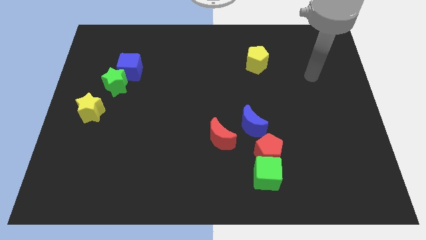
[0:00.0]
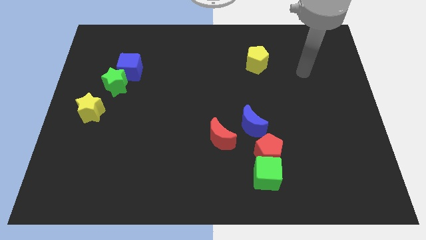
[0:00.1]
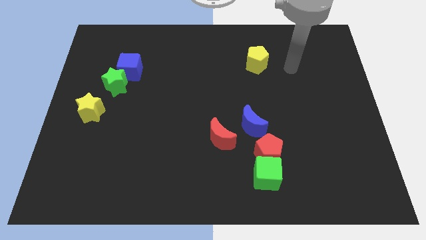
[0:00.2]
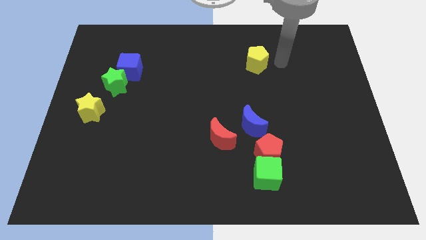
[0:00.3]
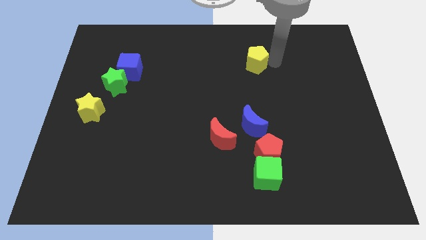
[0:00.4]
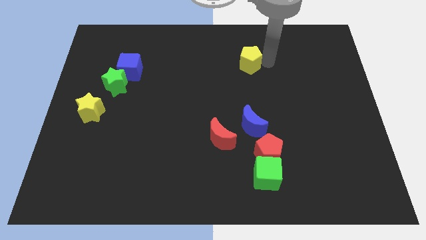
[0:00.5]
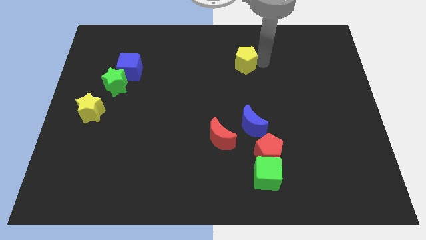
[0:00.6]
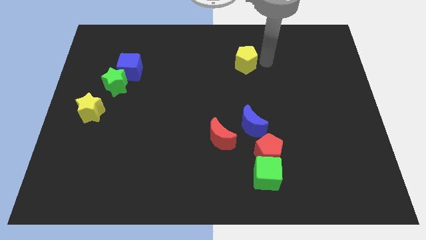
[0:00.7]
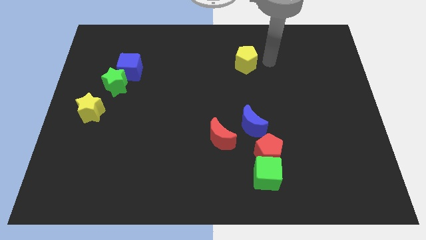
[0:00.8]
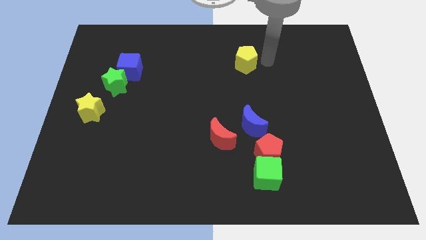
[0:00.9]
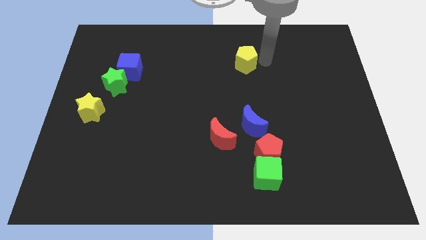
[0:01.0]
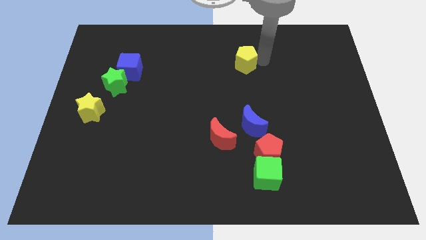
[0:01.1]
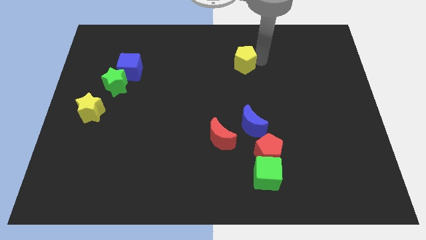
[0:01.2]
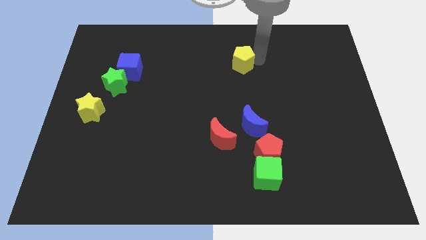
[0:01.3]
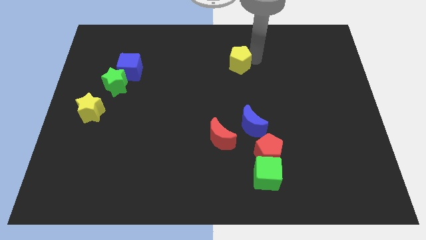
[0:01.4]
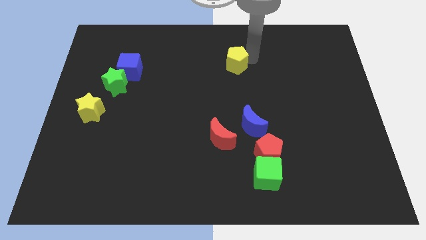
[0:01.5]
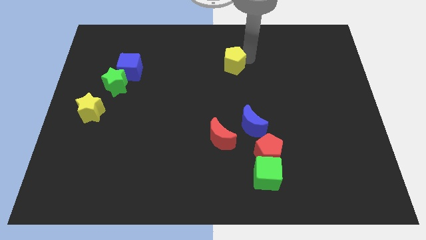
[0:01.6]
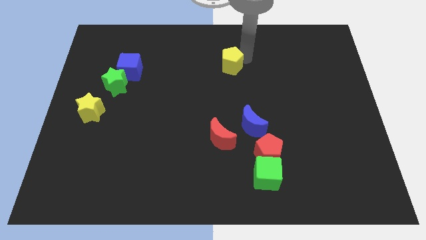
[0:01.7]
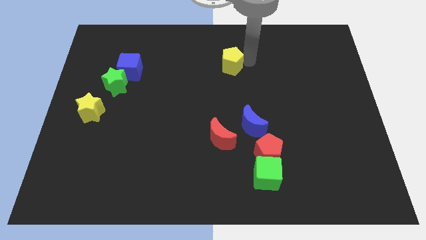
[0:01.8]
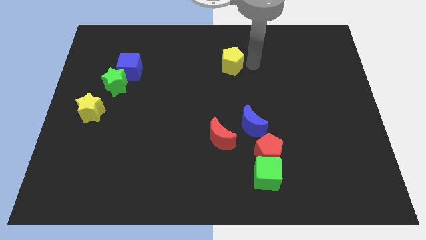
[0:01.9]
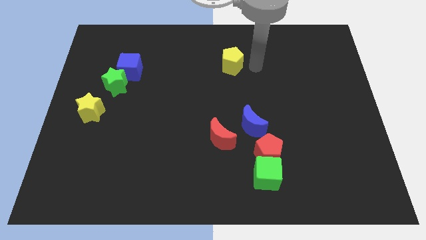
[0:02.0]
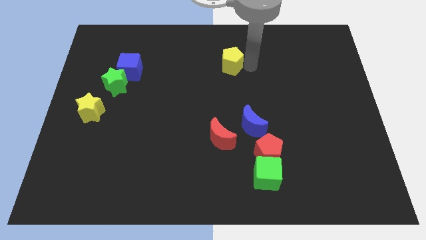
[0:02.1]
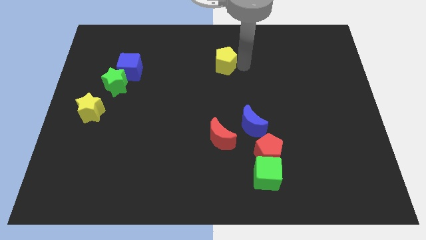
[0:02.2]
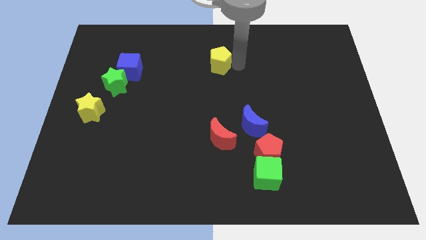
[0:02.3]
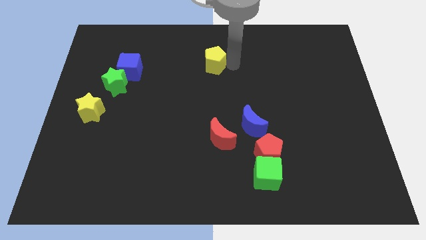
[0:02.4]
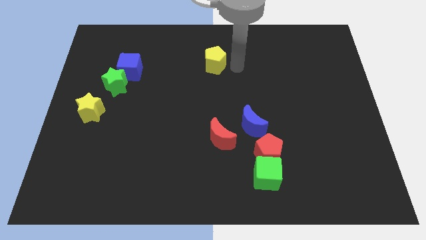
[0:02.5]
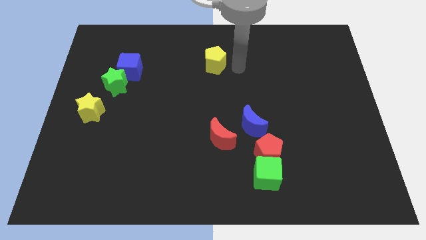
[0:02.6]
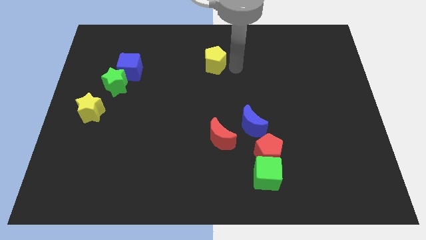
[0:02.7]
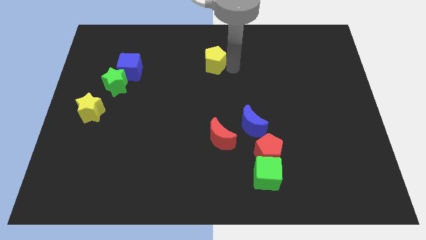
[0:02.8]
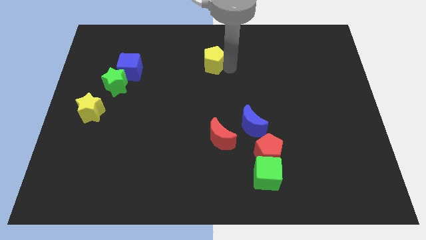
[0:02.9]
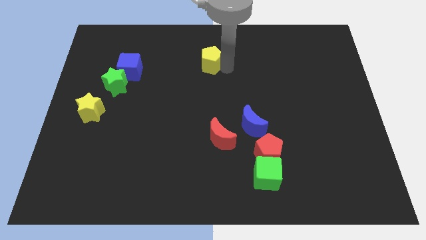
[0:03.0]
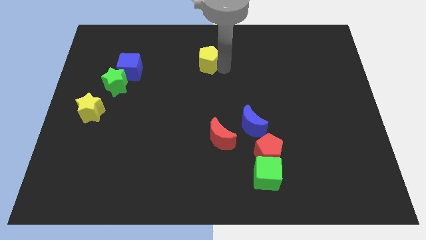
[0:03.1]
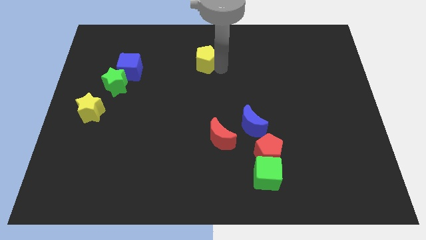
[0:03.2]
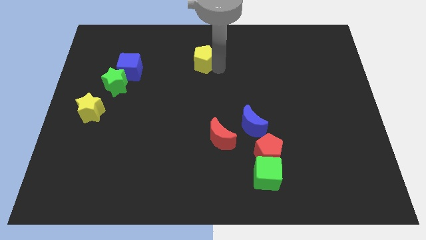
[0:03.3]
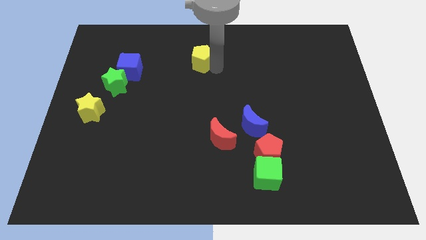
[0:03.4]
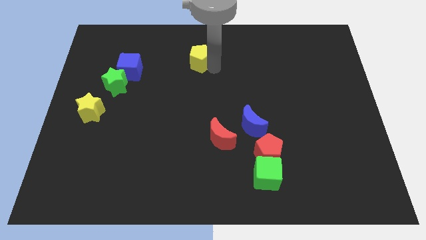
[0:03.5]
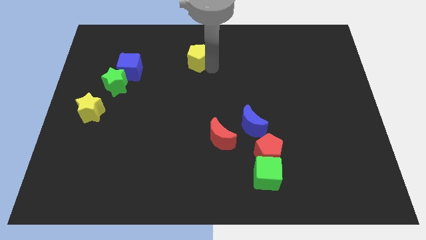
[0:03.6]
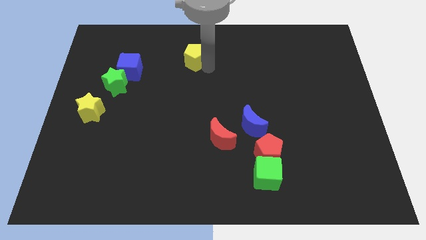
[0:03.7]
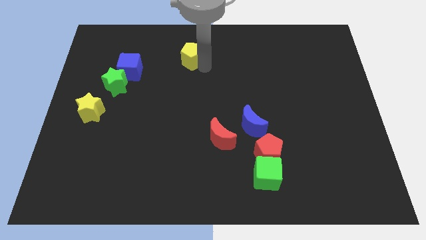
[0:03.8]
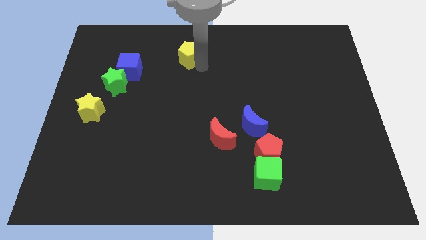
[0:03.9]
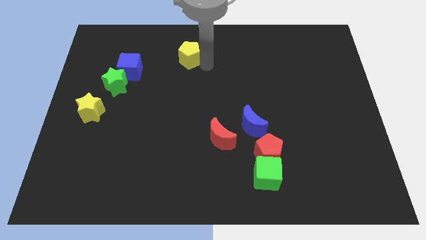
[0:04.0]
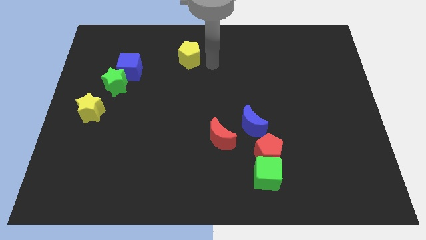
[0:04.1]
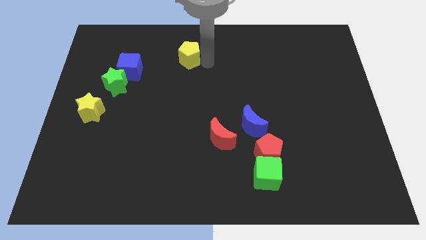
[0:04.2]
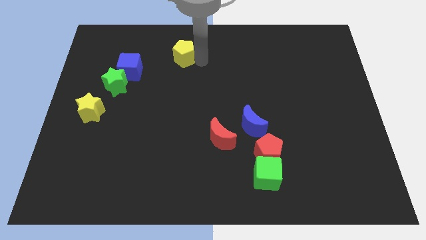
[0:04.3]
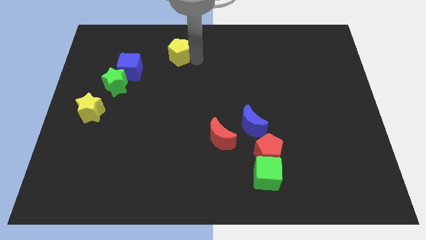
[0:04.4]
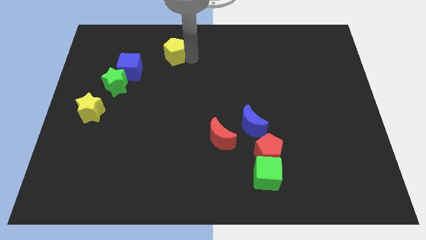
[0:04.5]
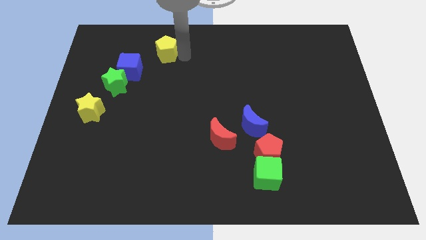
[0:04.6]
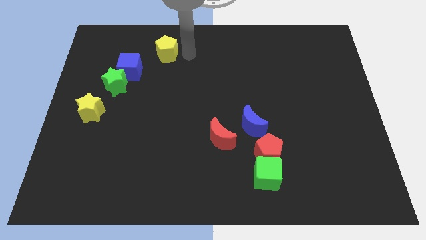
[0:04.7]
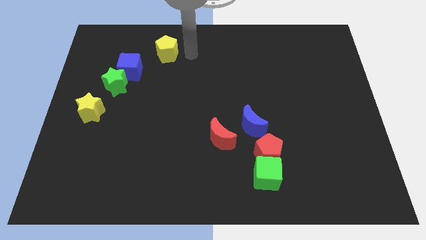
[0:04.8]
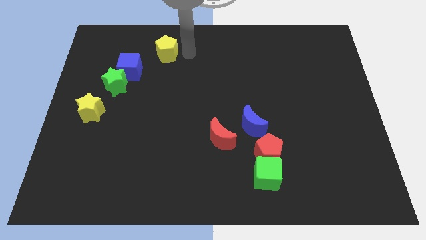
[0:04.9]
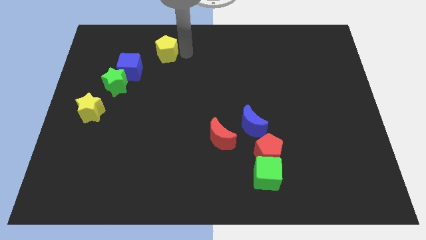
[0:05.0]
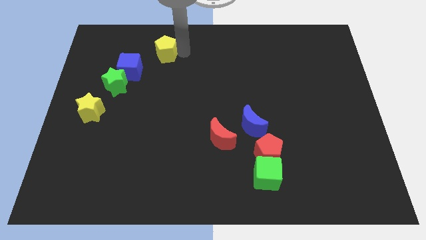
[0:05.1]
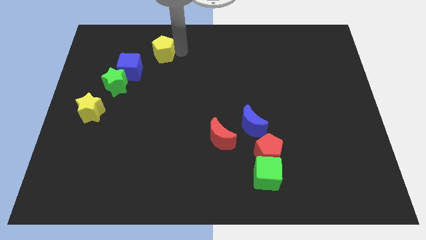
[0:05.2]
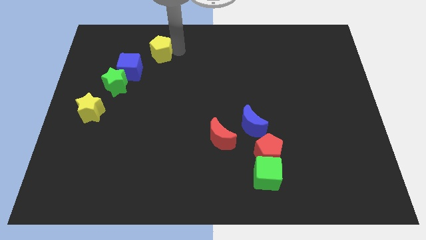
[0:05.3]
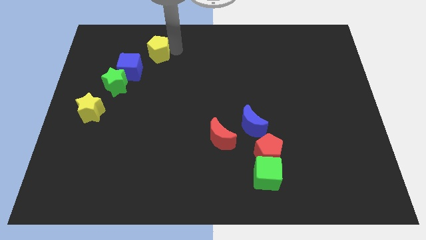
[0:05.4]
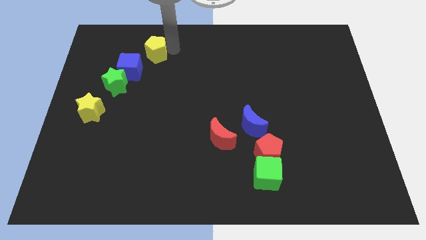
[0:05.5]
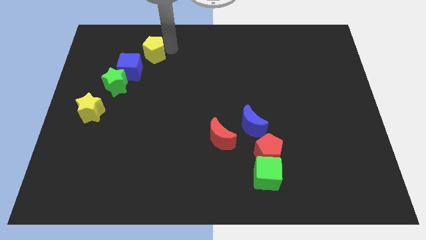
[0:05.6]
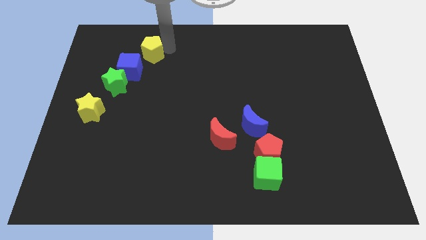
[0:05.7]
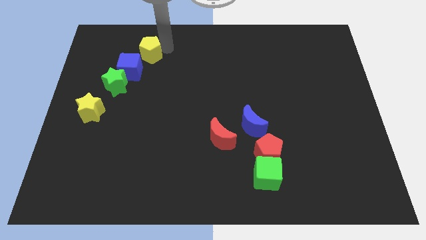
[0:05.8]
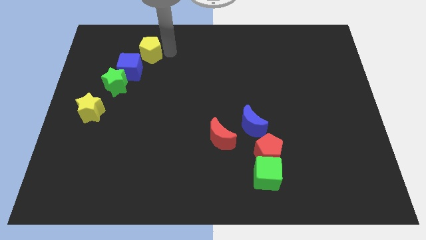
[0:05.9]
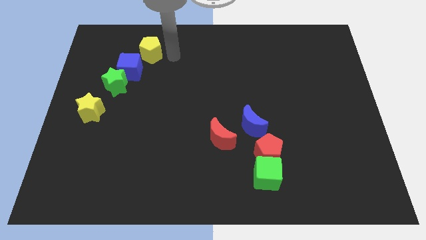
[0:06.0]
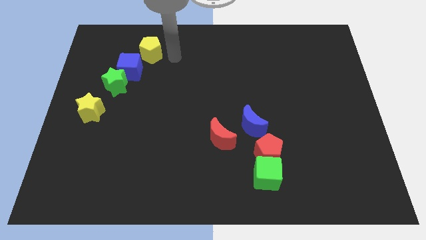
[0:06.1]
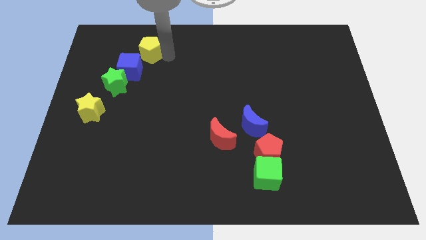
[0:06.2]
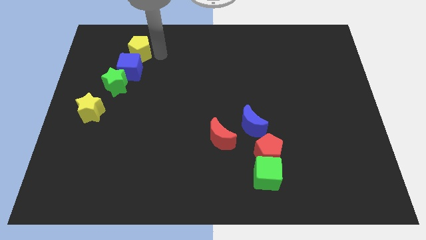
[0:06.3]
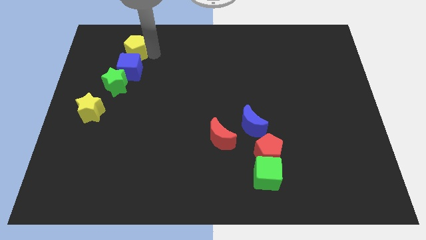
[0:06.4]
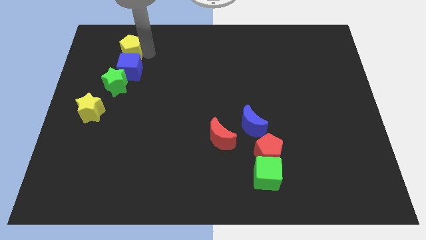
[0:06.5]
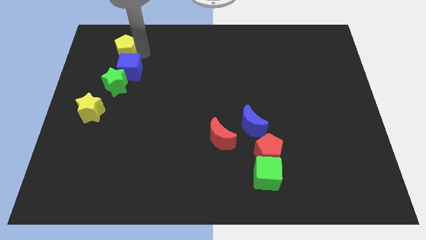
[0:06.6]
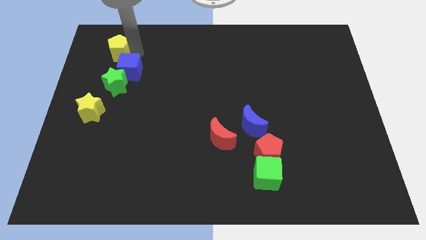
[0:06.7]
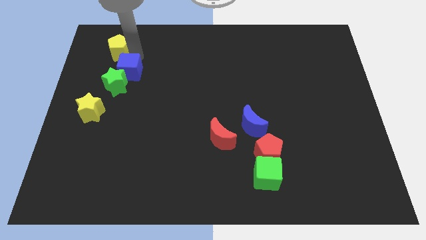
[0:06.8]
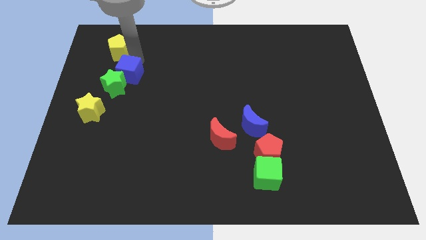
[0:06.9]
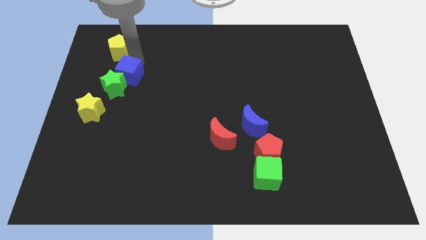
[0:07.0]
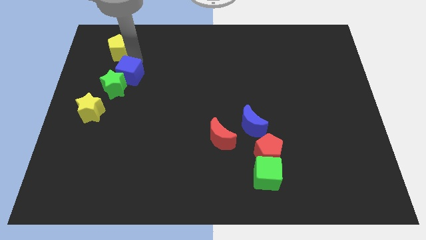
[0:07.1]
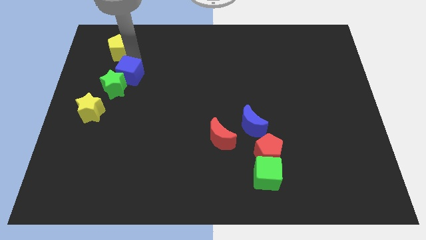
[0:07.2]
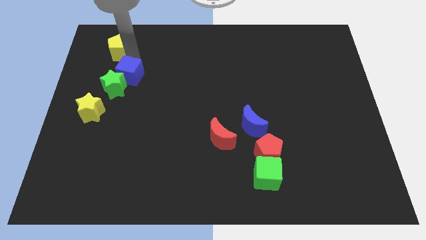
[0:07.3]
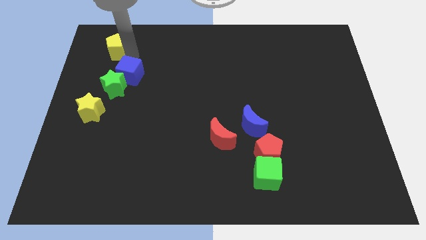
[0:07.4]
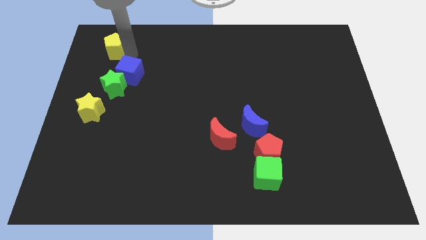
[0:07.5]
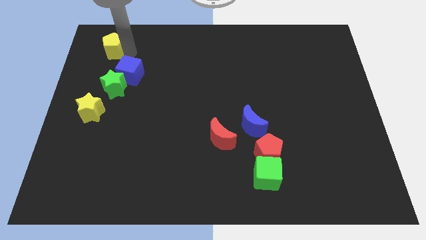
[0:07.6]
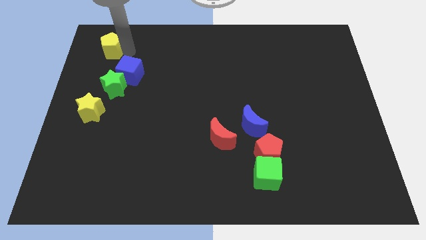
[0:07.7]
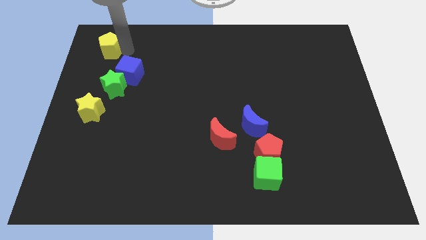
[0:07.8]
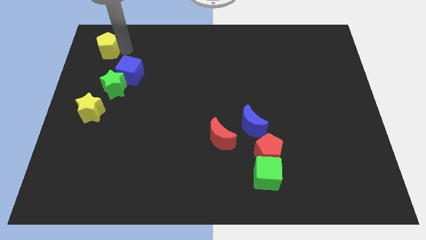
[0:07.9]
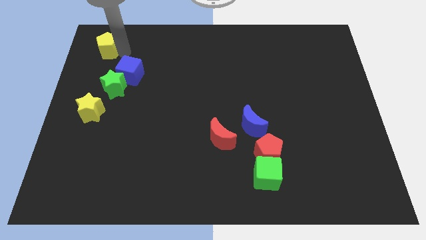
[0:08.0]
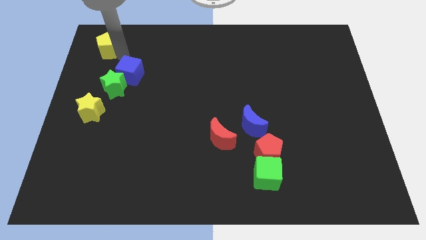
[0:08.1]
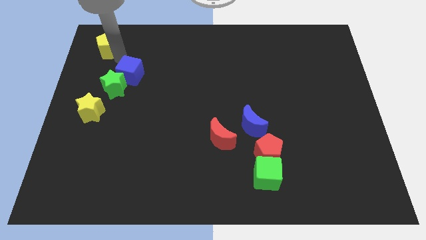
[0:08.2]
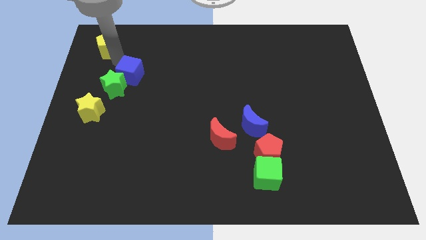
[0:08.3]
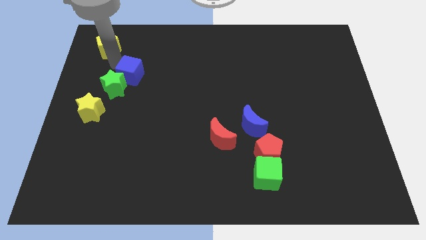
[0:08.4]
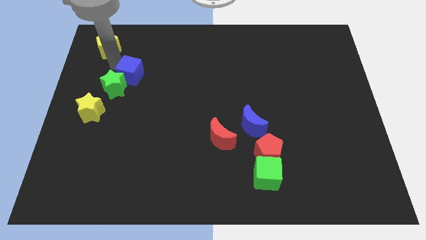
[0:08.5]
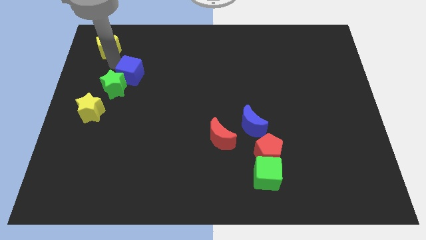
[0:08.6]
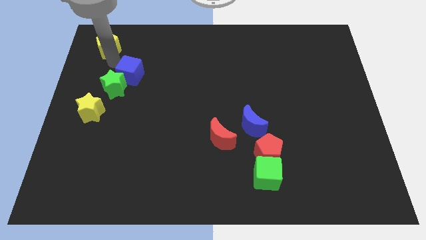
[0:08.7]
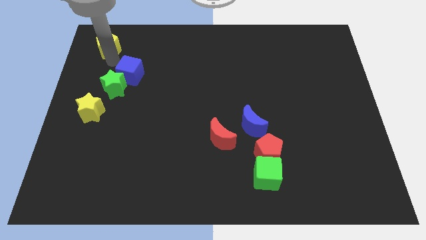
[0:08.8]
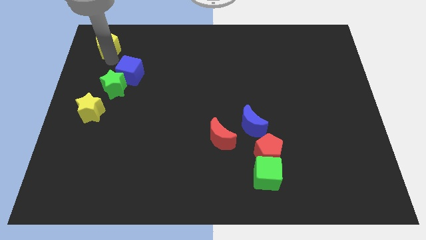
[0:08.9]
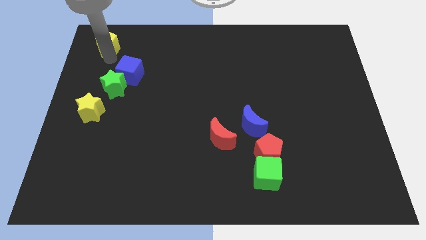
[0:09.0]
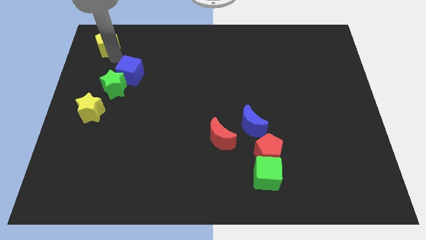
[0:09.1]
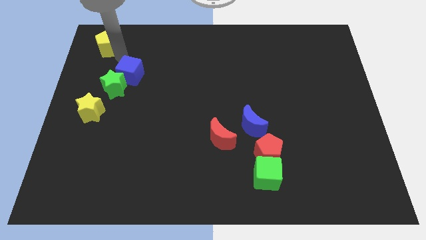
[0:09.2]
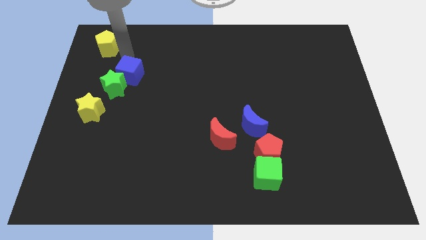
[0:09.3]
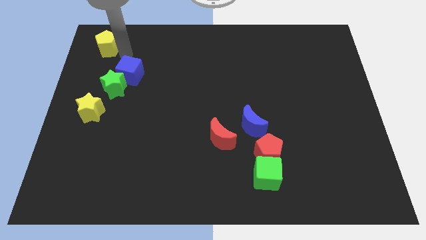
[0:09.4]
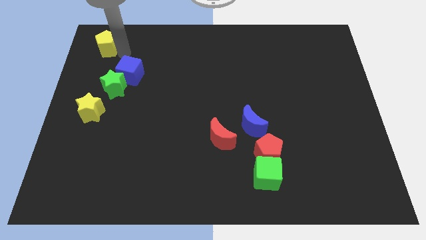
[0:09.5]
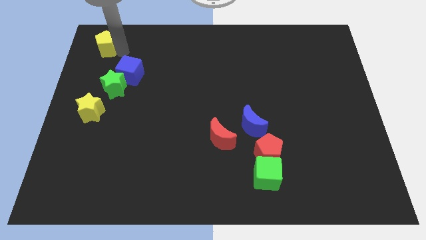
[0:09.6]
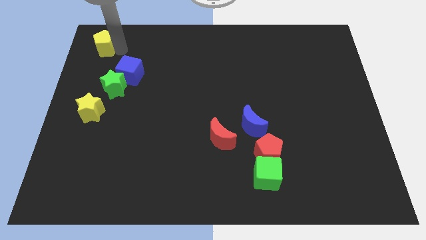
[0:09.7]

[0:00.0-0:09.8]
move the yellow pentagon to the top left of the board
